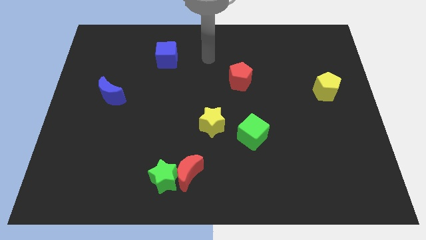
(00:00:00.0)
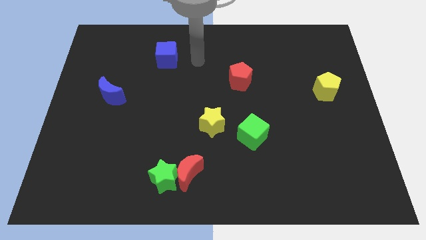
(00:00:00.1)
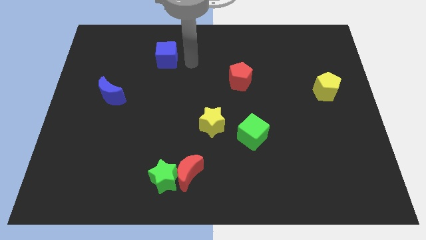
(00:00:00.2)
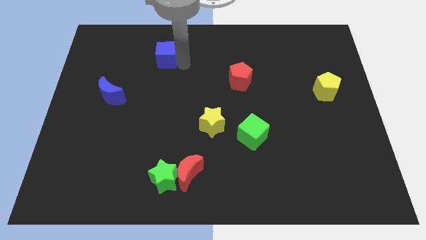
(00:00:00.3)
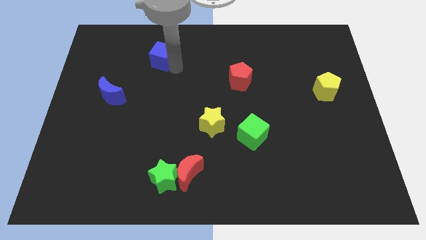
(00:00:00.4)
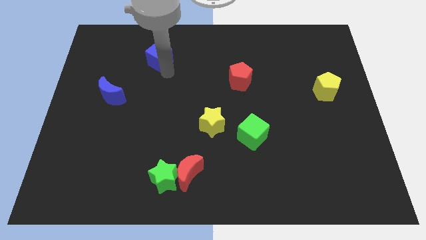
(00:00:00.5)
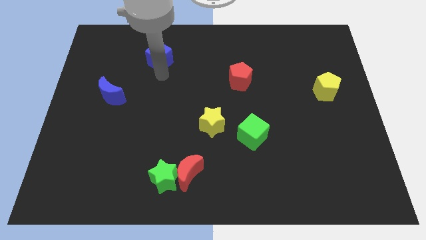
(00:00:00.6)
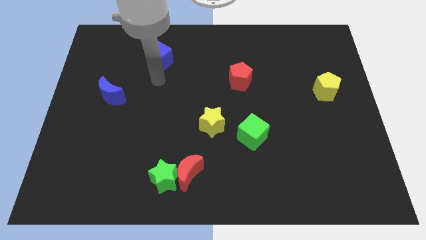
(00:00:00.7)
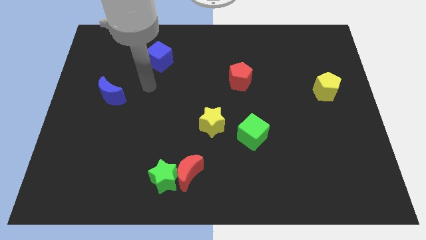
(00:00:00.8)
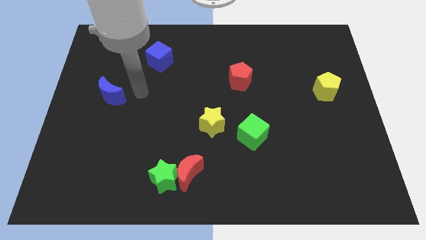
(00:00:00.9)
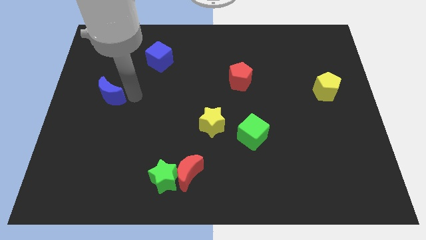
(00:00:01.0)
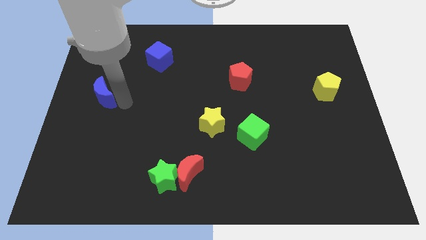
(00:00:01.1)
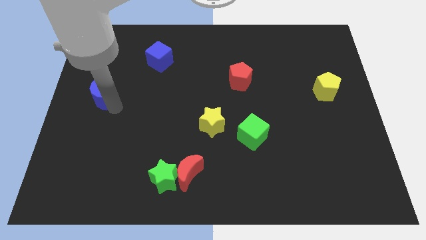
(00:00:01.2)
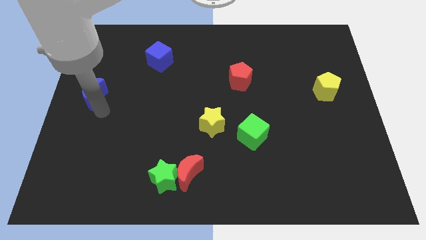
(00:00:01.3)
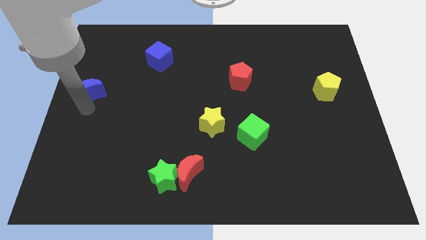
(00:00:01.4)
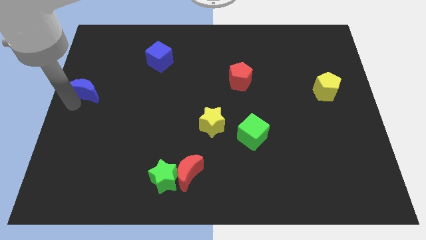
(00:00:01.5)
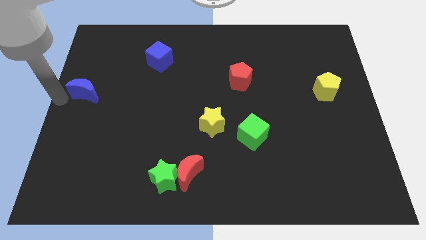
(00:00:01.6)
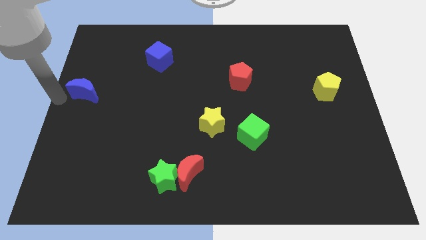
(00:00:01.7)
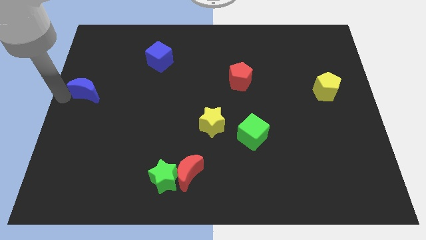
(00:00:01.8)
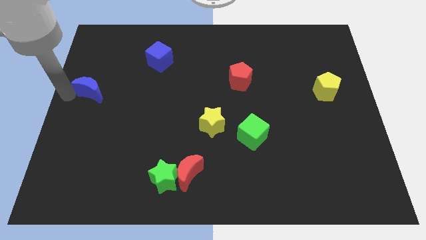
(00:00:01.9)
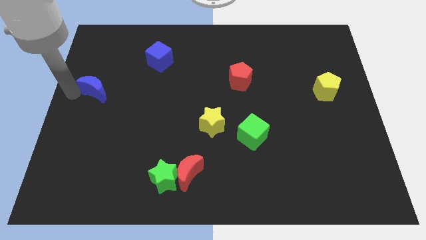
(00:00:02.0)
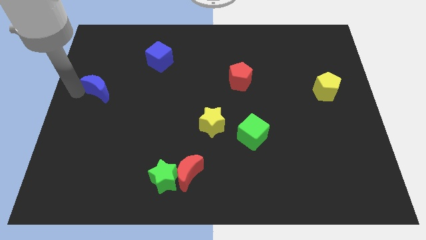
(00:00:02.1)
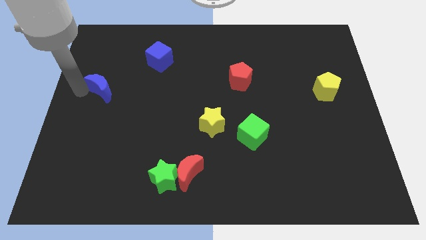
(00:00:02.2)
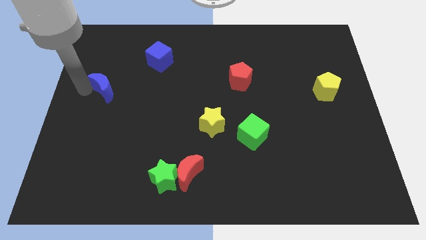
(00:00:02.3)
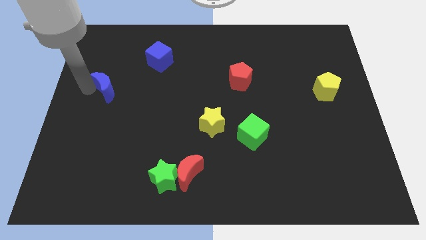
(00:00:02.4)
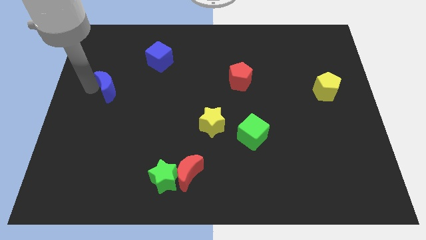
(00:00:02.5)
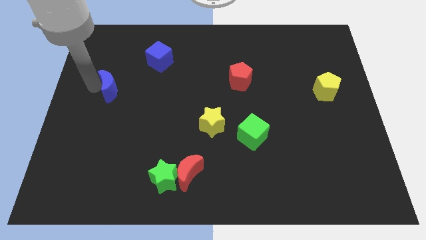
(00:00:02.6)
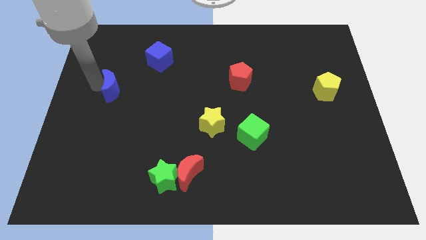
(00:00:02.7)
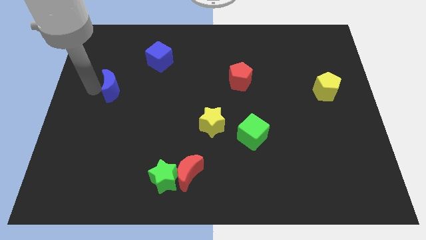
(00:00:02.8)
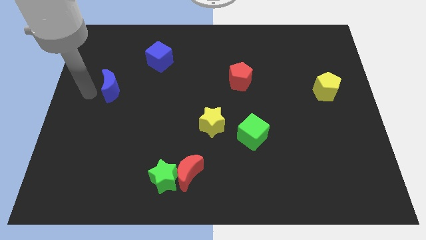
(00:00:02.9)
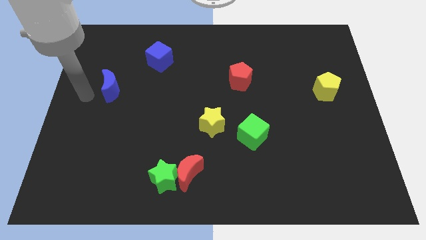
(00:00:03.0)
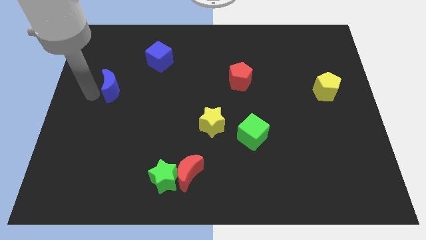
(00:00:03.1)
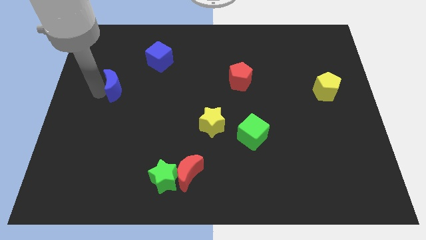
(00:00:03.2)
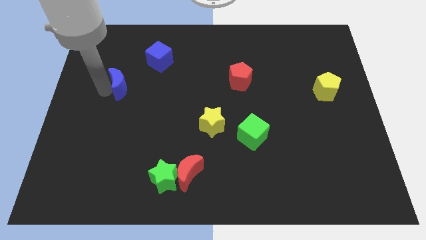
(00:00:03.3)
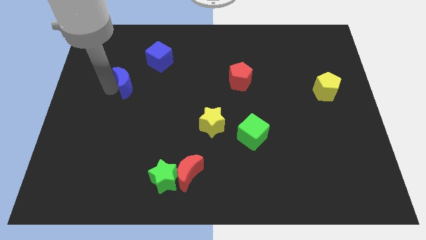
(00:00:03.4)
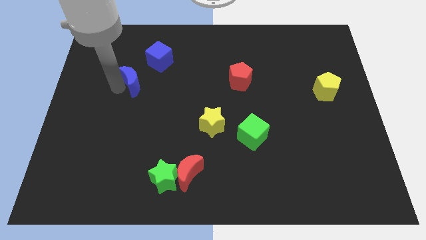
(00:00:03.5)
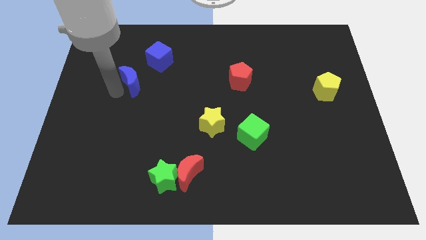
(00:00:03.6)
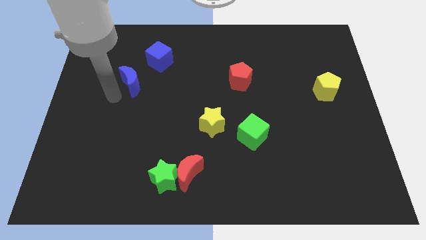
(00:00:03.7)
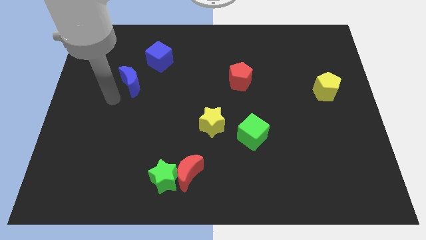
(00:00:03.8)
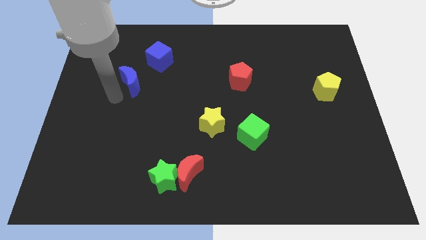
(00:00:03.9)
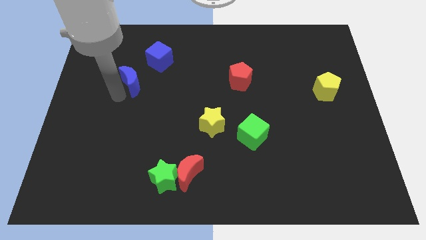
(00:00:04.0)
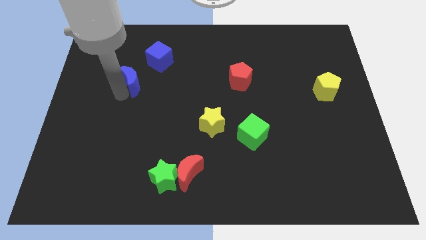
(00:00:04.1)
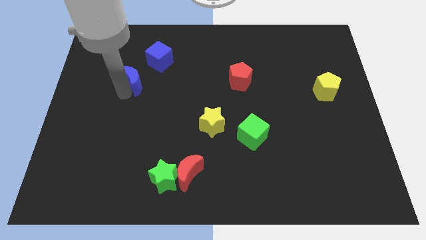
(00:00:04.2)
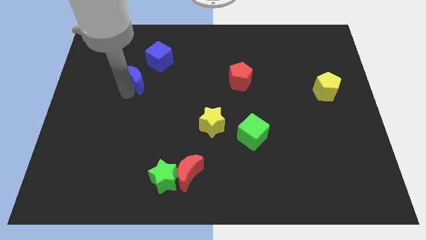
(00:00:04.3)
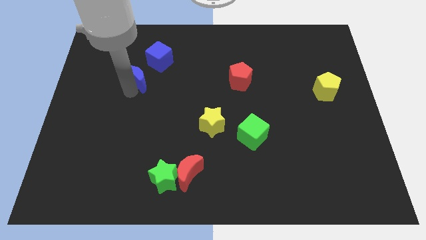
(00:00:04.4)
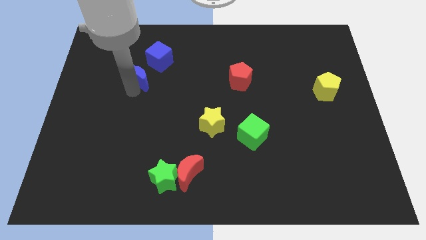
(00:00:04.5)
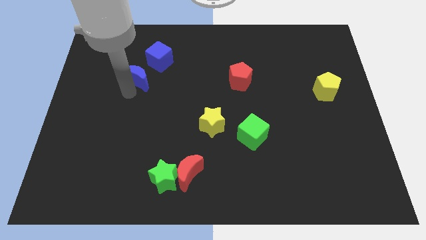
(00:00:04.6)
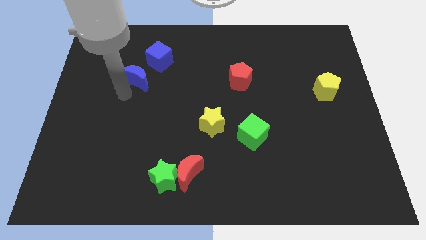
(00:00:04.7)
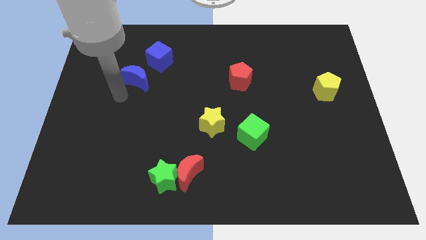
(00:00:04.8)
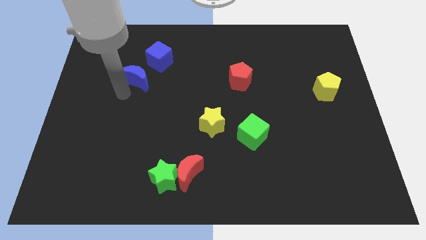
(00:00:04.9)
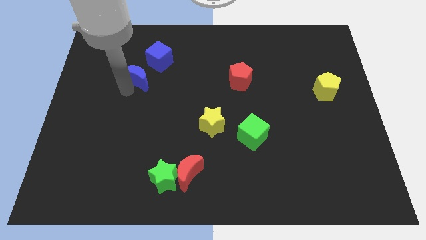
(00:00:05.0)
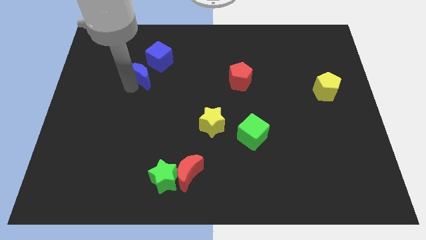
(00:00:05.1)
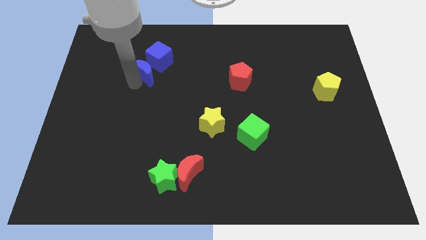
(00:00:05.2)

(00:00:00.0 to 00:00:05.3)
put the blue moon towards the blue cube
